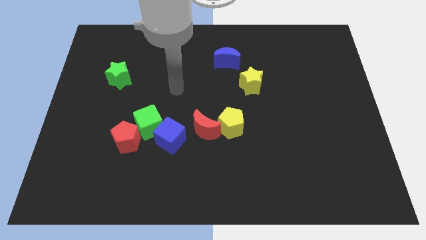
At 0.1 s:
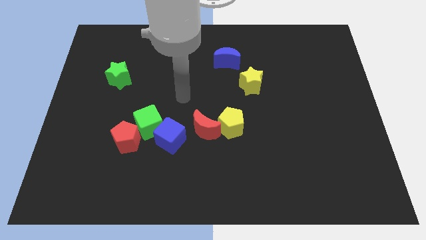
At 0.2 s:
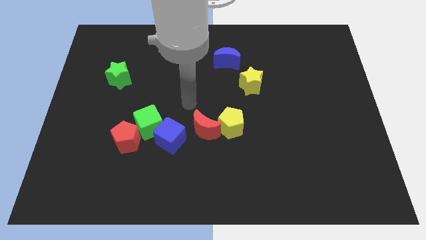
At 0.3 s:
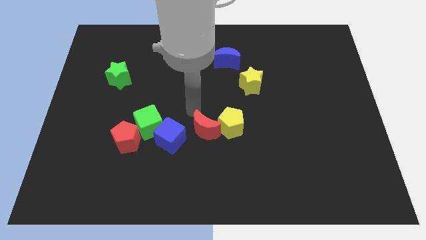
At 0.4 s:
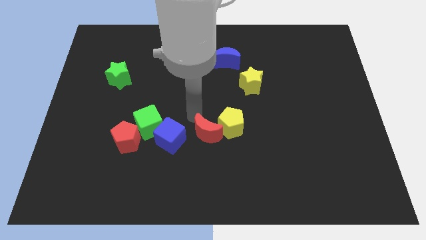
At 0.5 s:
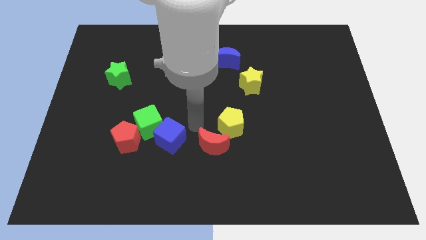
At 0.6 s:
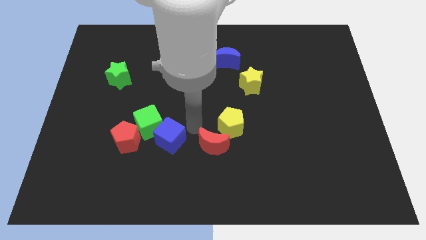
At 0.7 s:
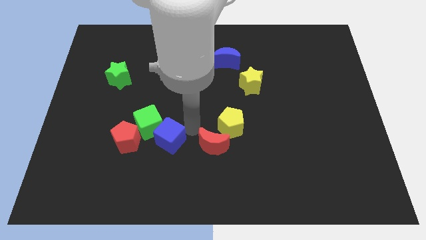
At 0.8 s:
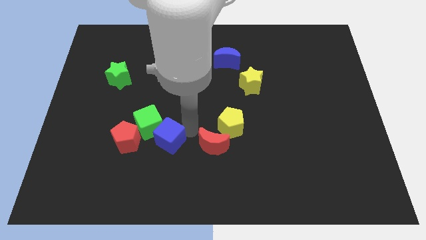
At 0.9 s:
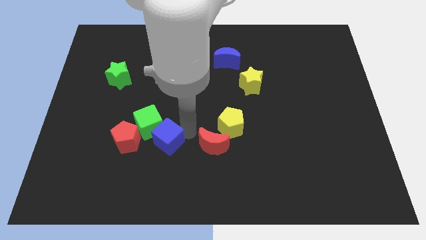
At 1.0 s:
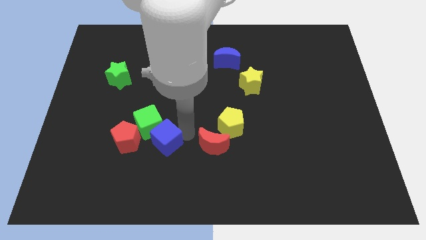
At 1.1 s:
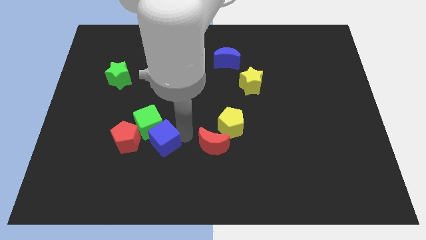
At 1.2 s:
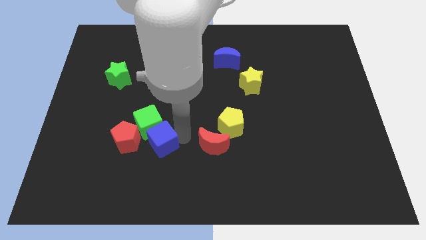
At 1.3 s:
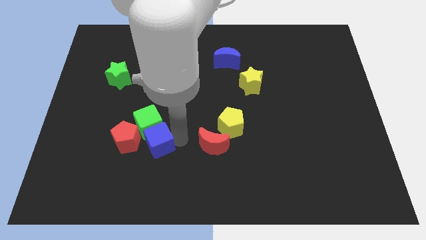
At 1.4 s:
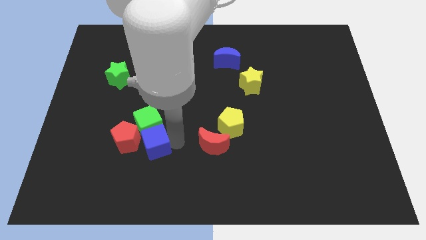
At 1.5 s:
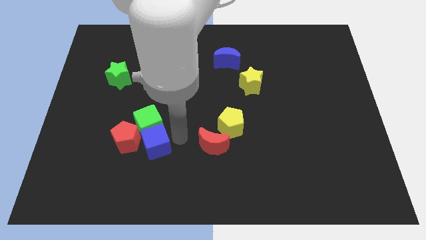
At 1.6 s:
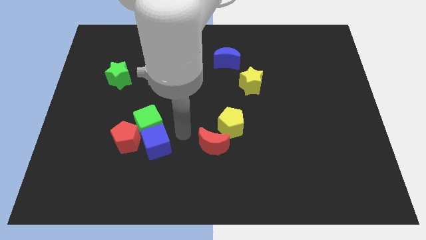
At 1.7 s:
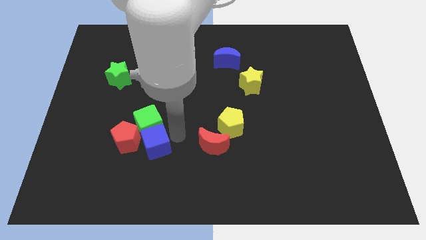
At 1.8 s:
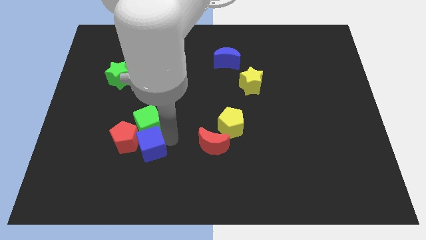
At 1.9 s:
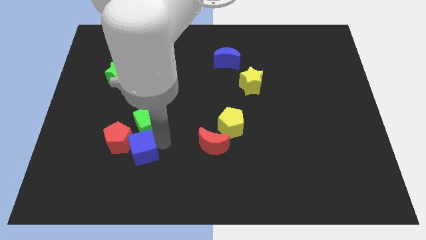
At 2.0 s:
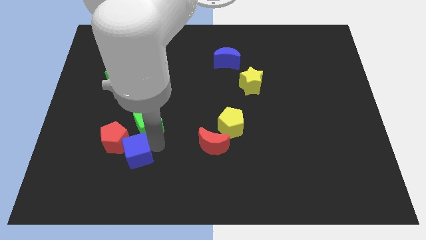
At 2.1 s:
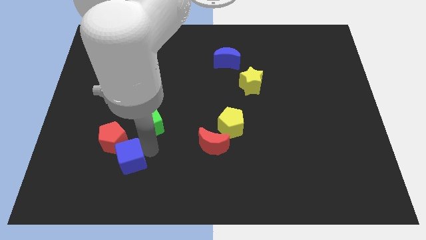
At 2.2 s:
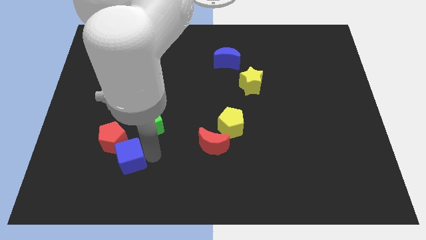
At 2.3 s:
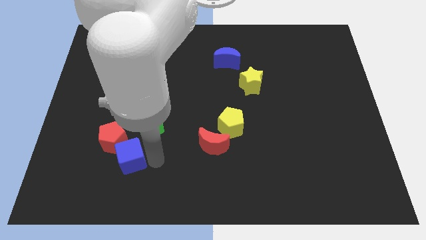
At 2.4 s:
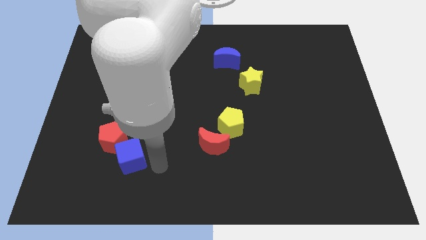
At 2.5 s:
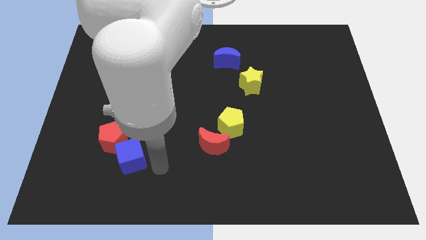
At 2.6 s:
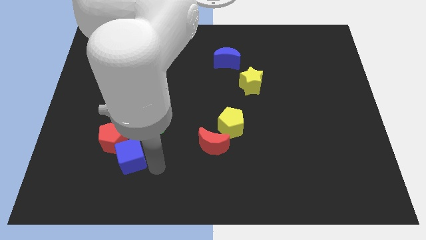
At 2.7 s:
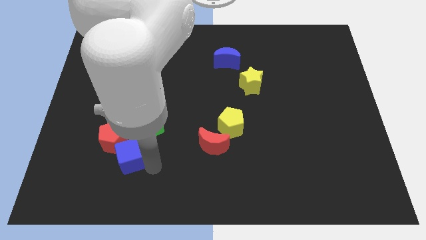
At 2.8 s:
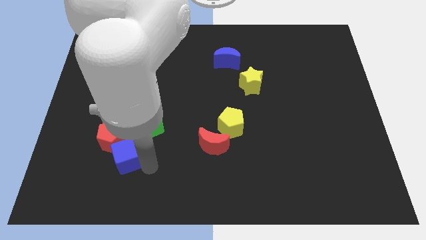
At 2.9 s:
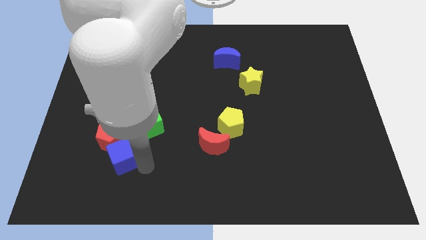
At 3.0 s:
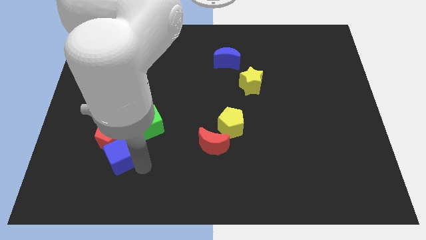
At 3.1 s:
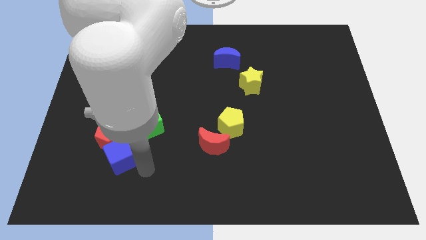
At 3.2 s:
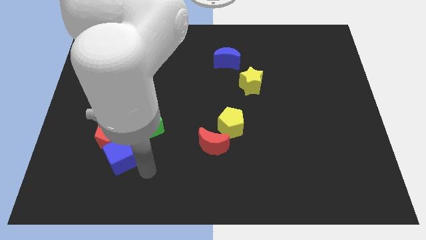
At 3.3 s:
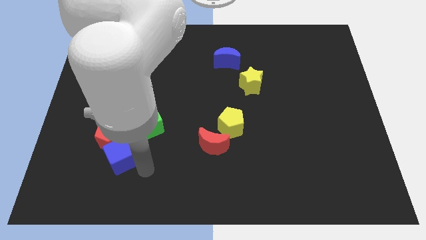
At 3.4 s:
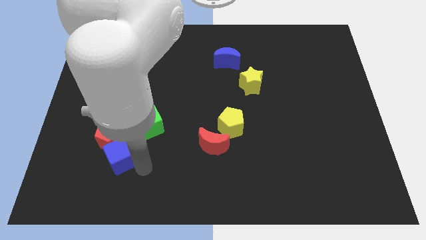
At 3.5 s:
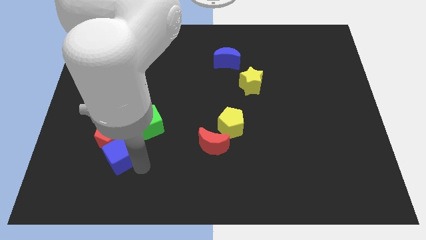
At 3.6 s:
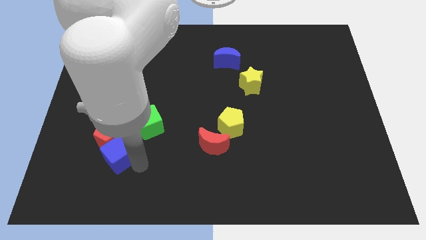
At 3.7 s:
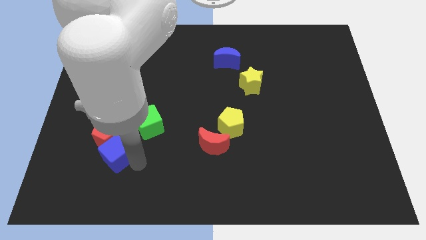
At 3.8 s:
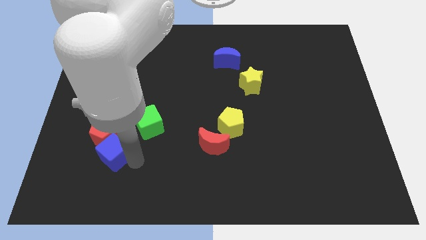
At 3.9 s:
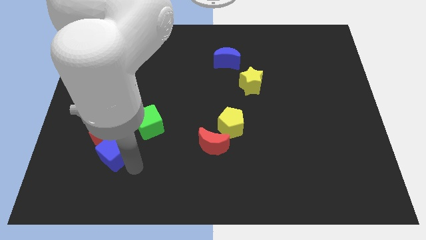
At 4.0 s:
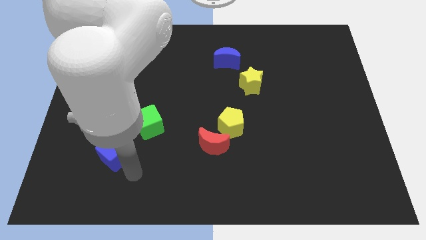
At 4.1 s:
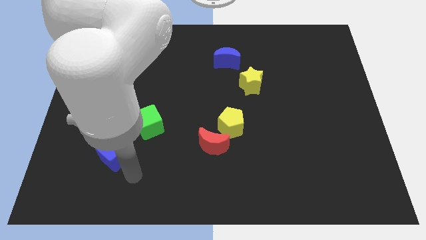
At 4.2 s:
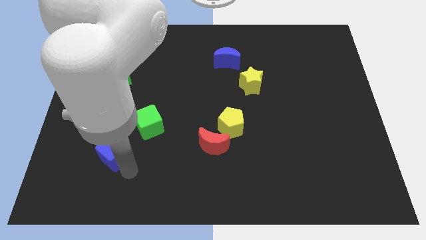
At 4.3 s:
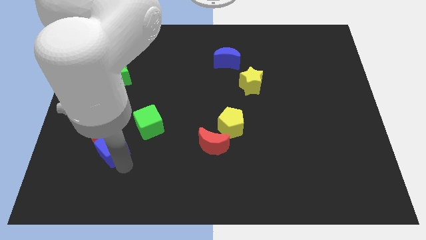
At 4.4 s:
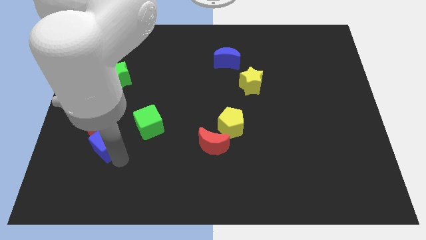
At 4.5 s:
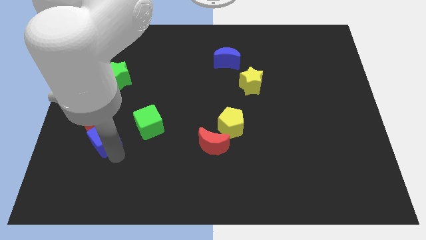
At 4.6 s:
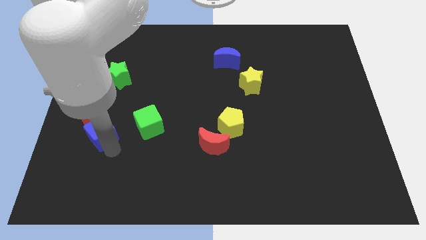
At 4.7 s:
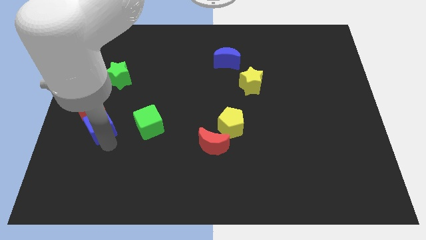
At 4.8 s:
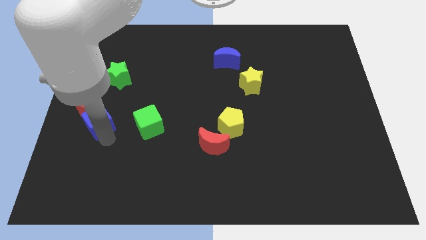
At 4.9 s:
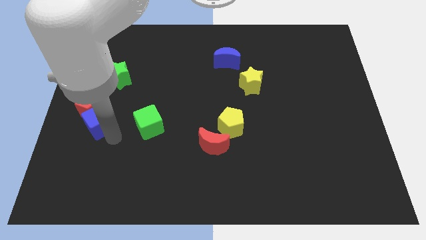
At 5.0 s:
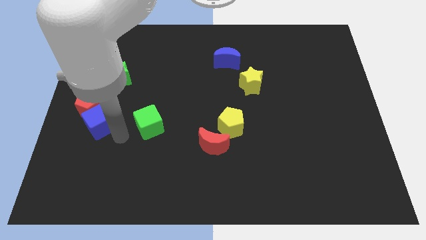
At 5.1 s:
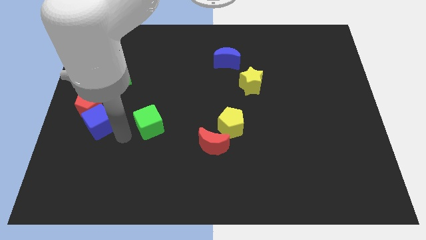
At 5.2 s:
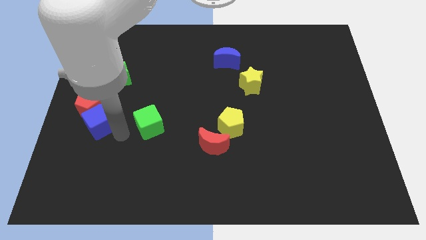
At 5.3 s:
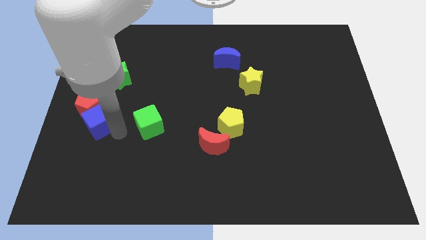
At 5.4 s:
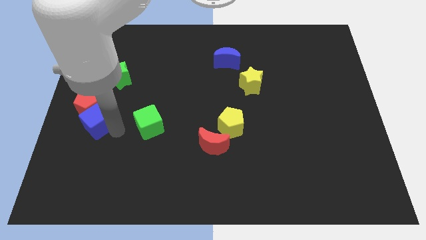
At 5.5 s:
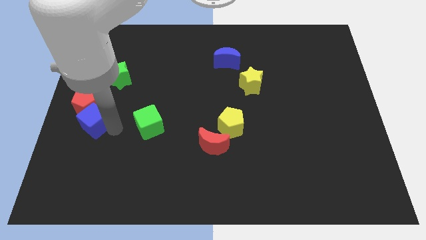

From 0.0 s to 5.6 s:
push the blue cube to the left side of the board

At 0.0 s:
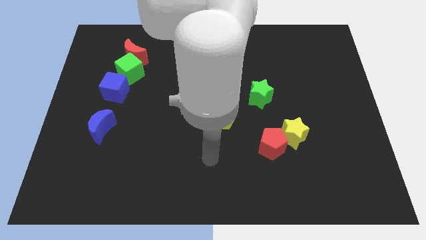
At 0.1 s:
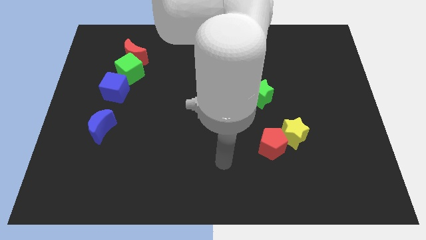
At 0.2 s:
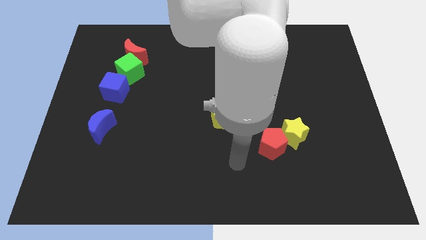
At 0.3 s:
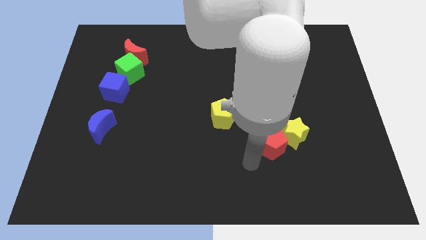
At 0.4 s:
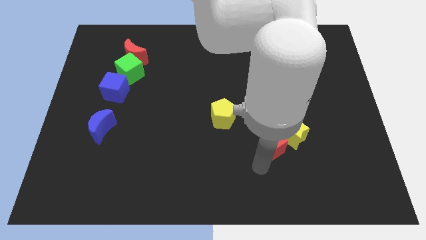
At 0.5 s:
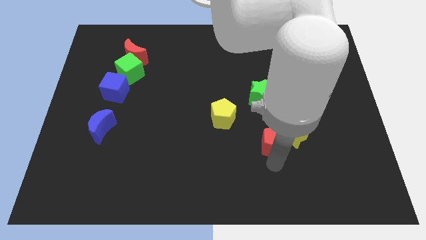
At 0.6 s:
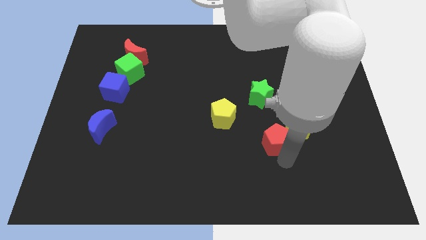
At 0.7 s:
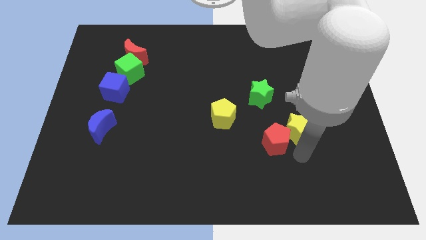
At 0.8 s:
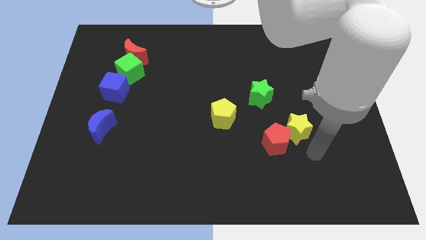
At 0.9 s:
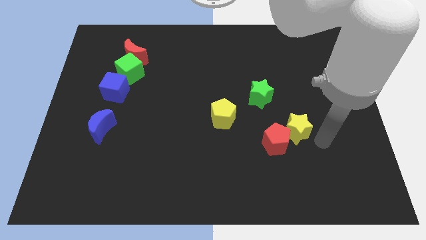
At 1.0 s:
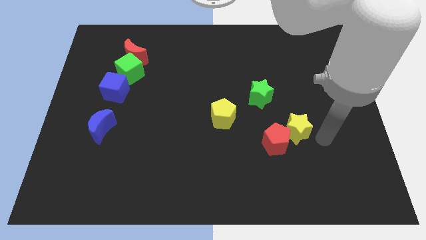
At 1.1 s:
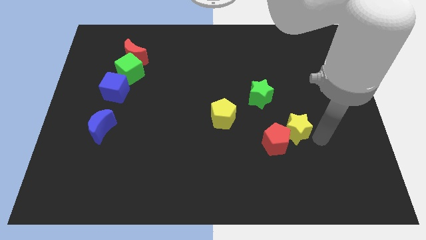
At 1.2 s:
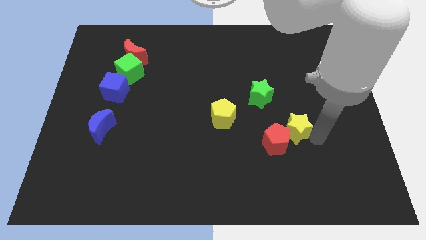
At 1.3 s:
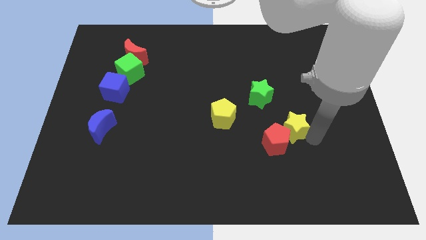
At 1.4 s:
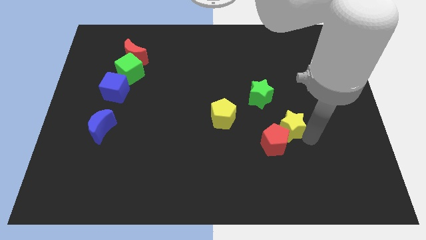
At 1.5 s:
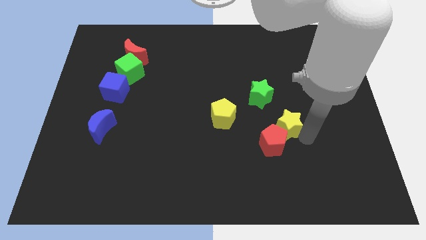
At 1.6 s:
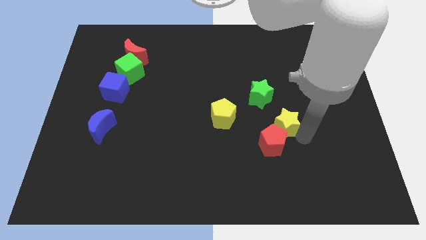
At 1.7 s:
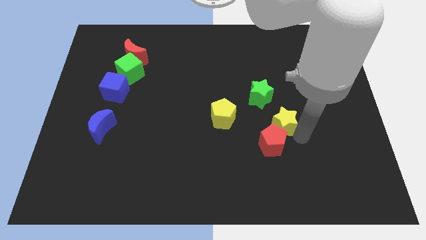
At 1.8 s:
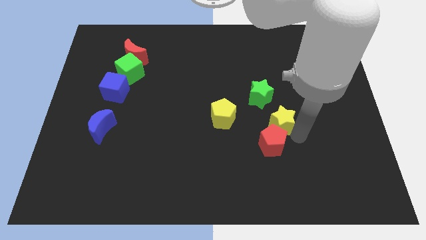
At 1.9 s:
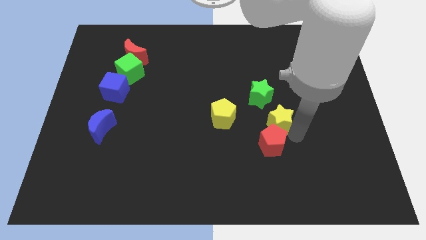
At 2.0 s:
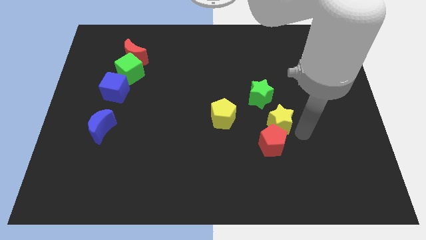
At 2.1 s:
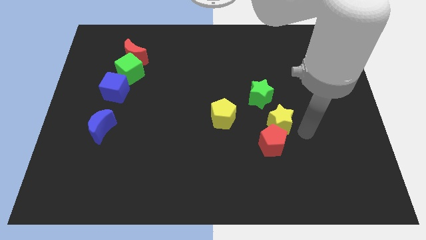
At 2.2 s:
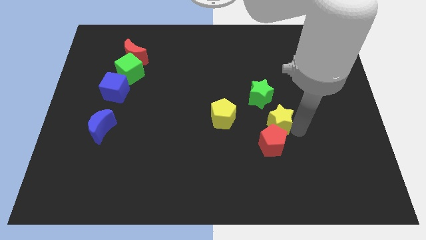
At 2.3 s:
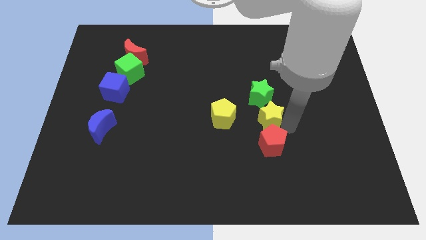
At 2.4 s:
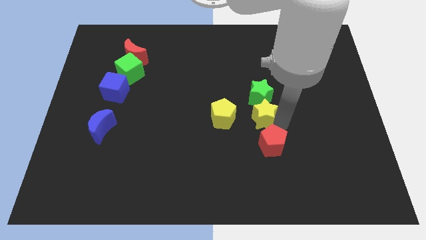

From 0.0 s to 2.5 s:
move the yellow star to the center of the board
